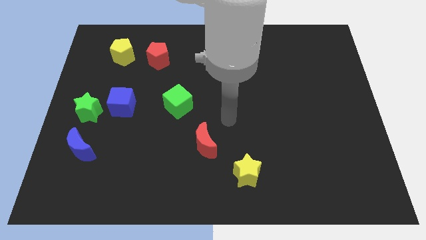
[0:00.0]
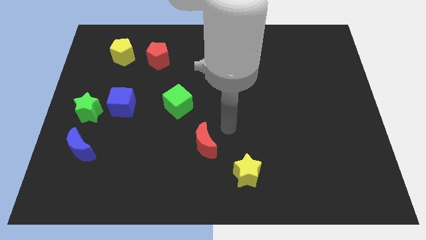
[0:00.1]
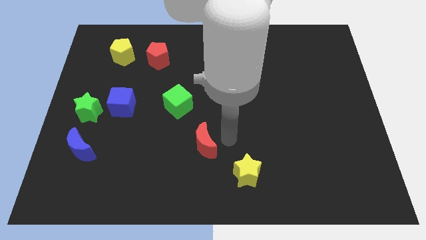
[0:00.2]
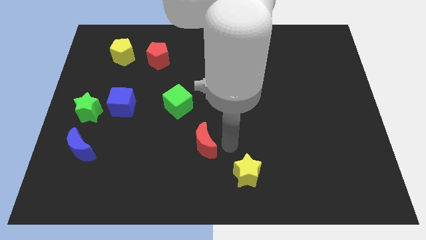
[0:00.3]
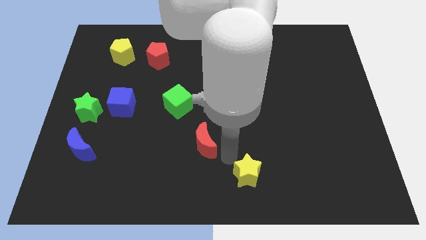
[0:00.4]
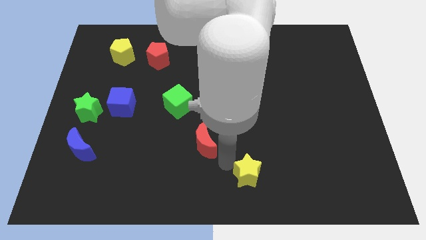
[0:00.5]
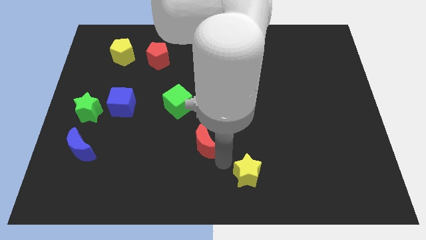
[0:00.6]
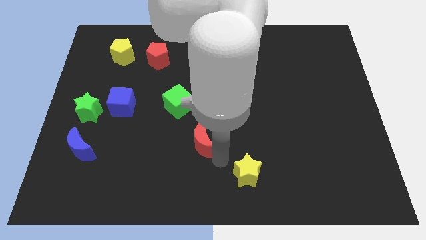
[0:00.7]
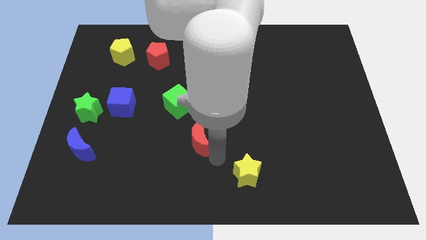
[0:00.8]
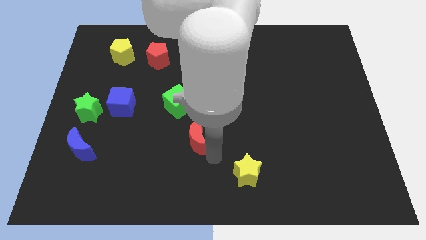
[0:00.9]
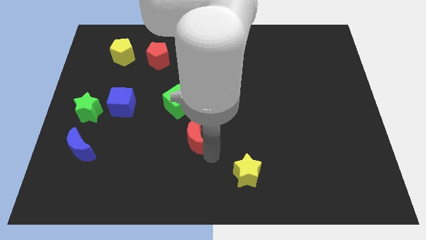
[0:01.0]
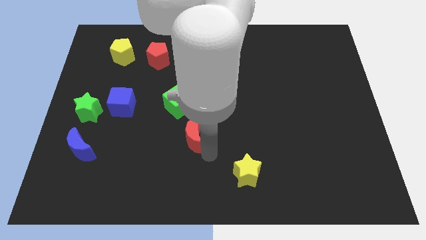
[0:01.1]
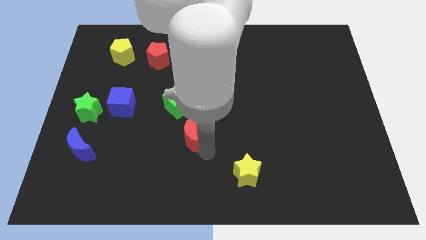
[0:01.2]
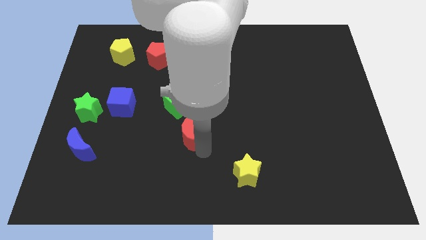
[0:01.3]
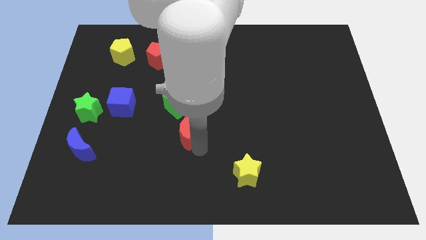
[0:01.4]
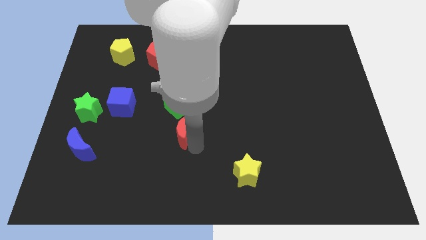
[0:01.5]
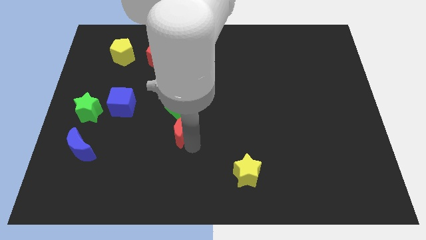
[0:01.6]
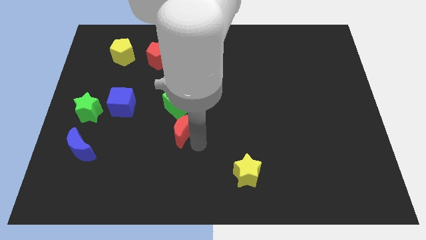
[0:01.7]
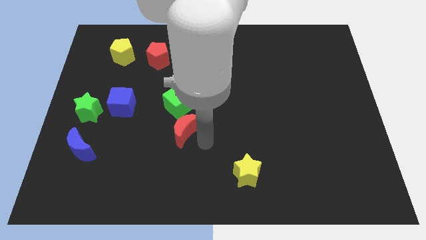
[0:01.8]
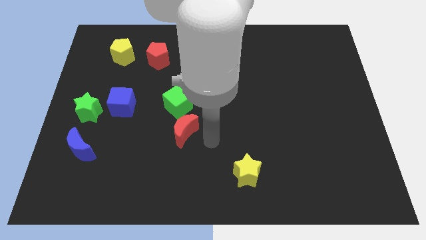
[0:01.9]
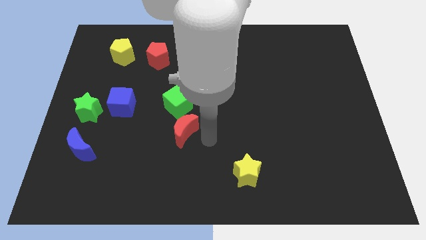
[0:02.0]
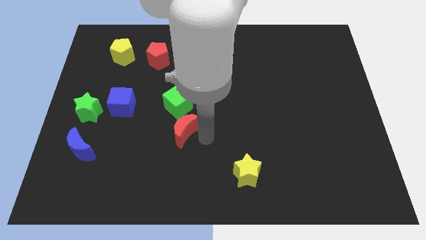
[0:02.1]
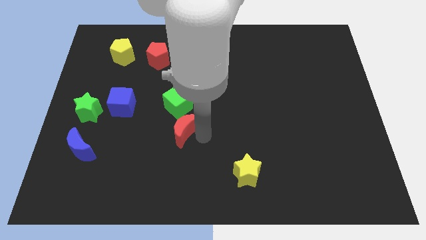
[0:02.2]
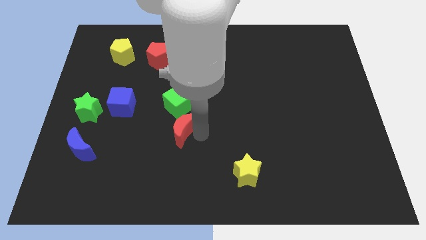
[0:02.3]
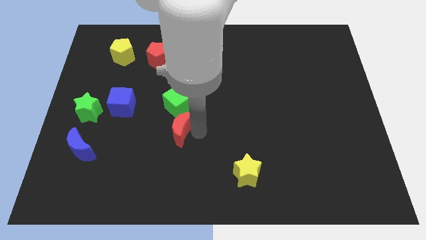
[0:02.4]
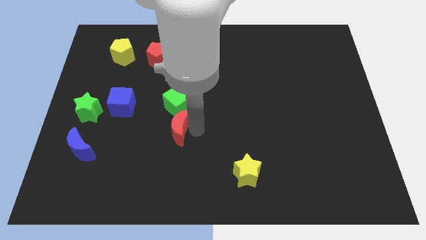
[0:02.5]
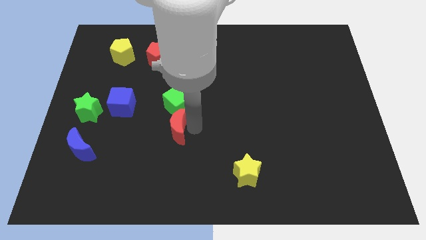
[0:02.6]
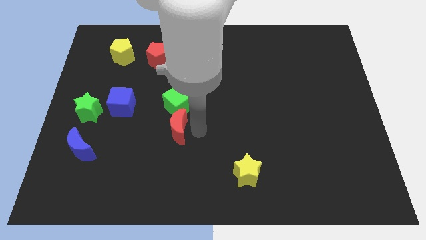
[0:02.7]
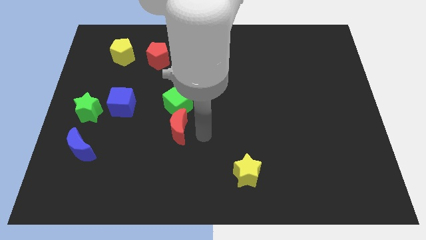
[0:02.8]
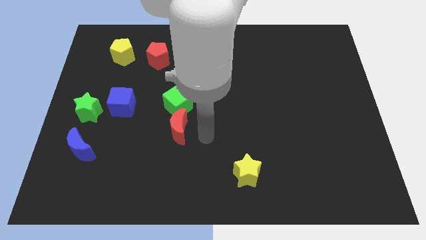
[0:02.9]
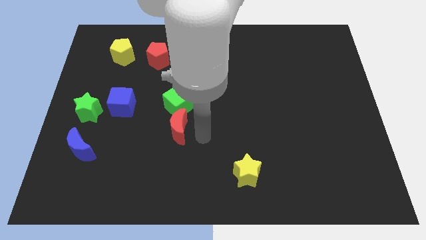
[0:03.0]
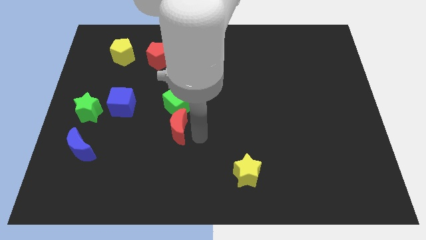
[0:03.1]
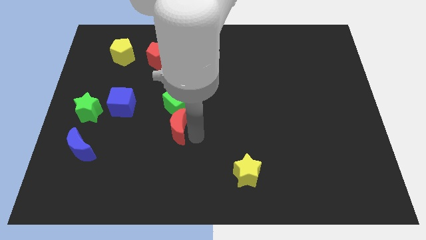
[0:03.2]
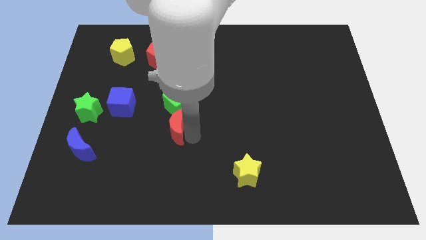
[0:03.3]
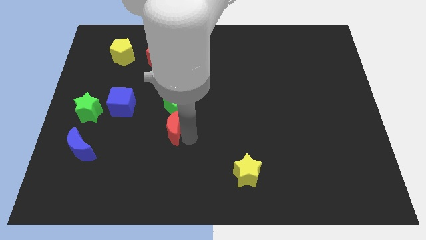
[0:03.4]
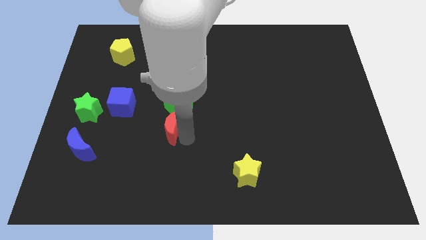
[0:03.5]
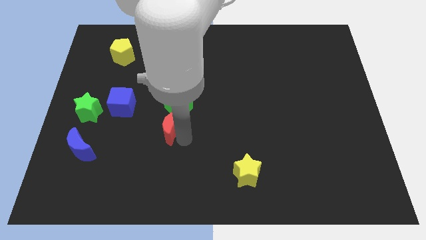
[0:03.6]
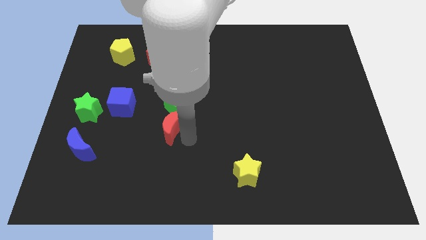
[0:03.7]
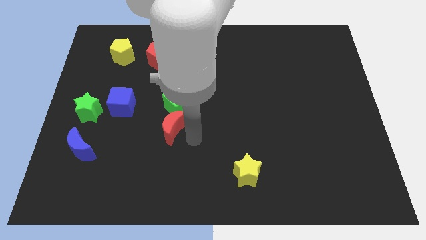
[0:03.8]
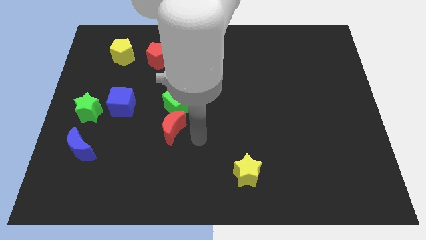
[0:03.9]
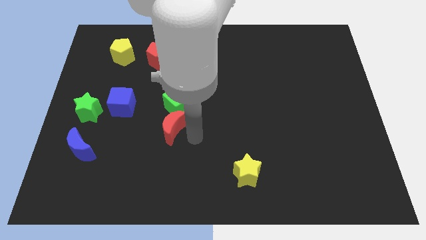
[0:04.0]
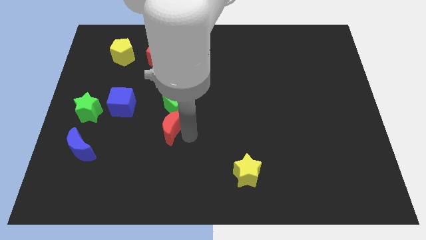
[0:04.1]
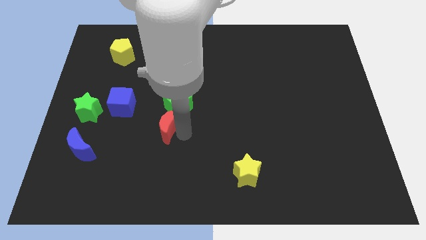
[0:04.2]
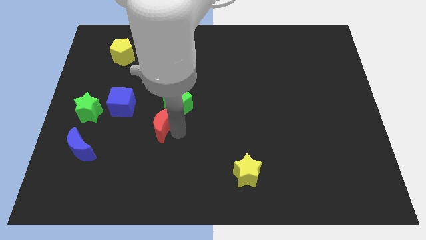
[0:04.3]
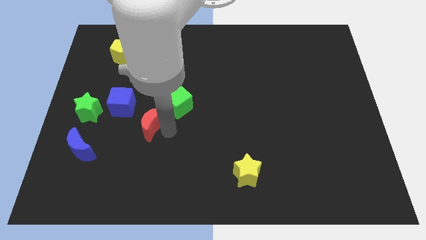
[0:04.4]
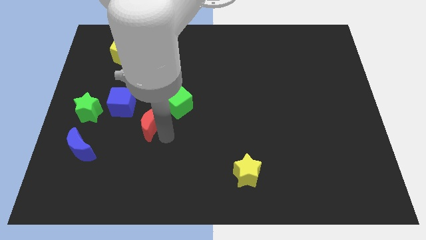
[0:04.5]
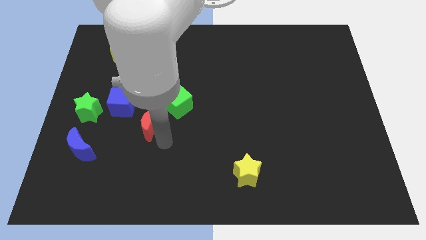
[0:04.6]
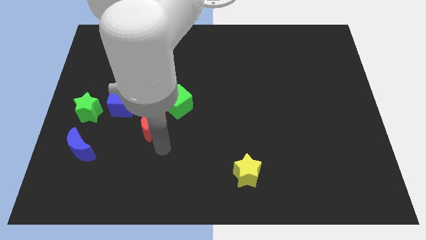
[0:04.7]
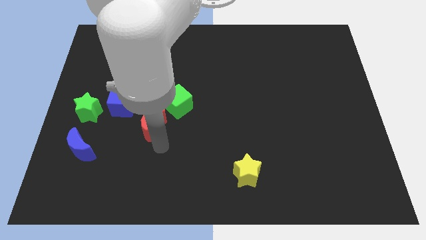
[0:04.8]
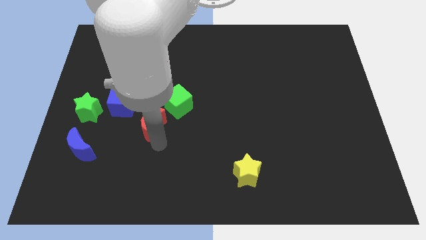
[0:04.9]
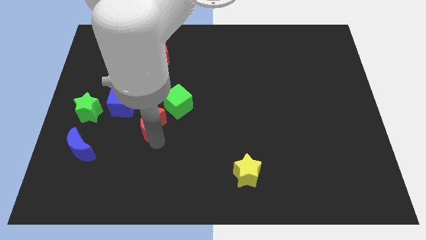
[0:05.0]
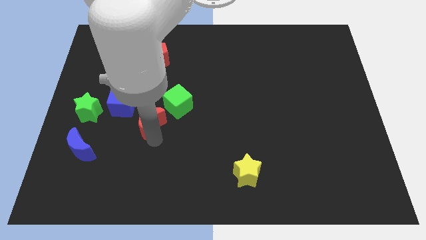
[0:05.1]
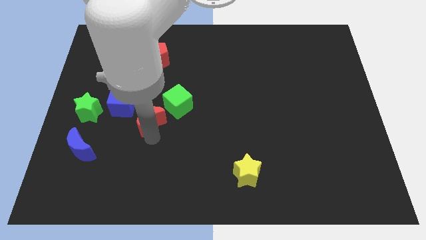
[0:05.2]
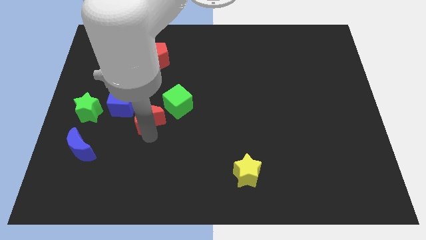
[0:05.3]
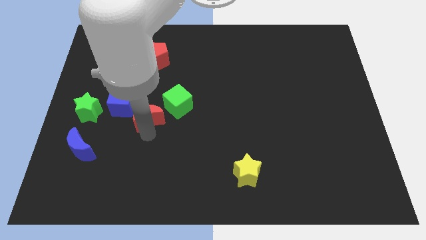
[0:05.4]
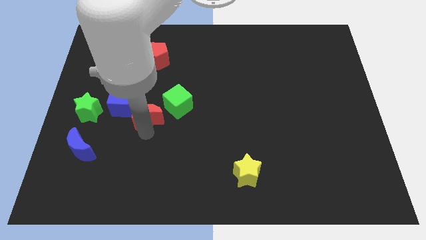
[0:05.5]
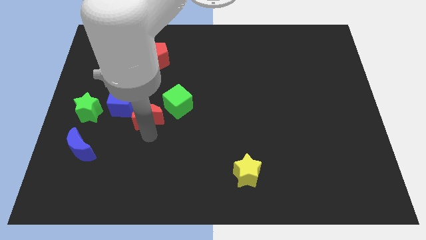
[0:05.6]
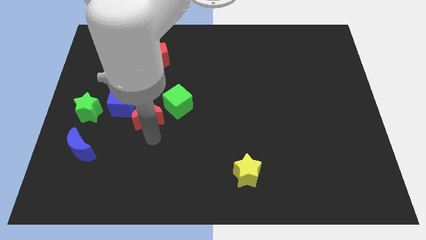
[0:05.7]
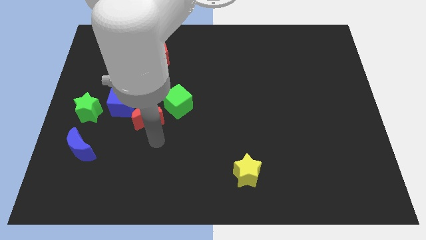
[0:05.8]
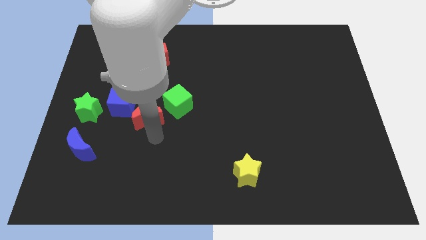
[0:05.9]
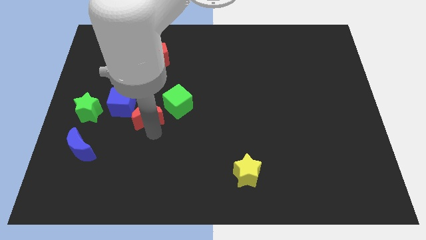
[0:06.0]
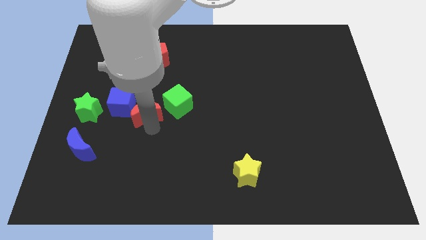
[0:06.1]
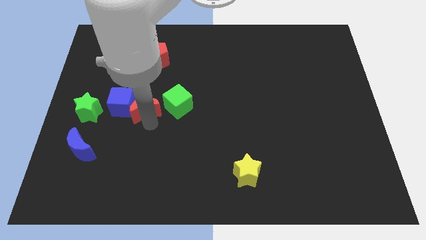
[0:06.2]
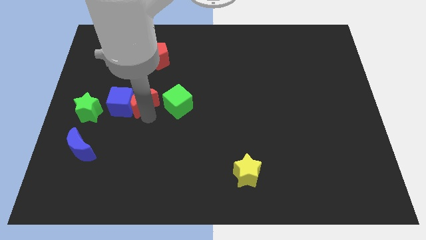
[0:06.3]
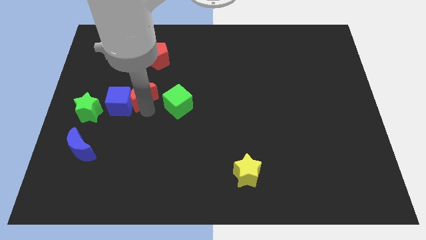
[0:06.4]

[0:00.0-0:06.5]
move the red moon up and to the left diagonally

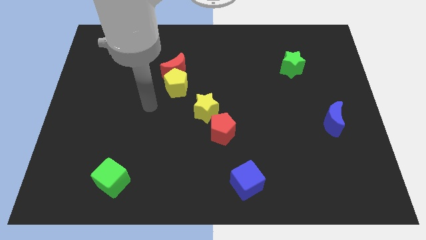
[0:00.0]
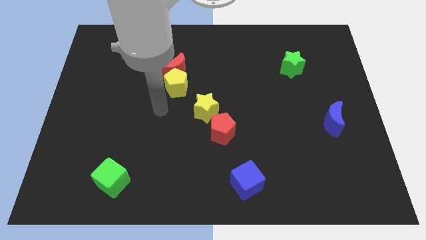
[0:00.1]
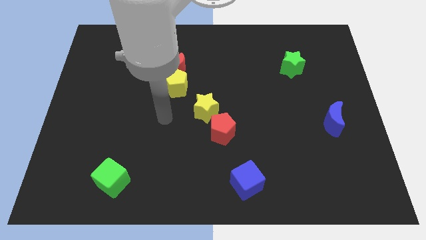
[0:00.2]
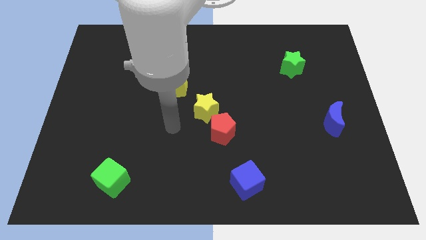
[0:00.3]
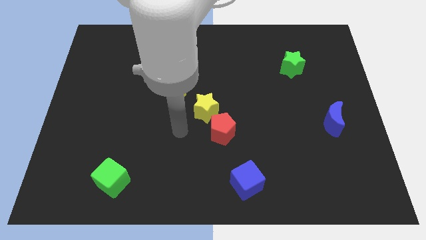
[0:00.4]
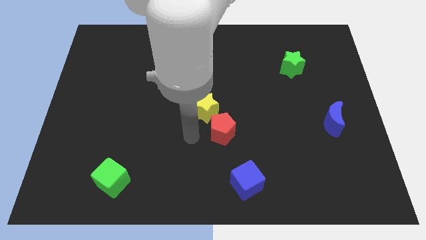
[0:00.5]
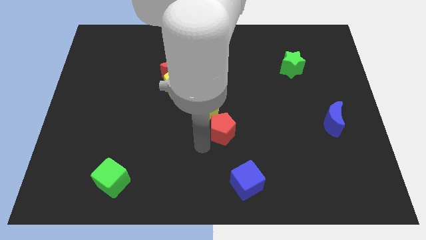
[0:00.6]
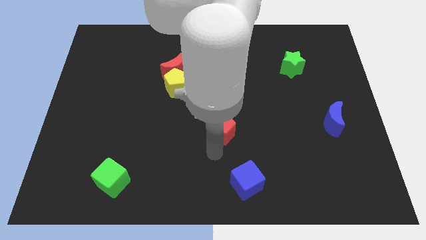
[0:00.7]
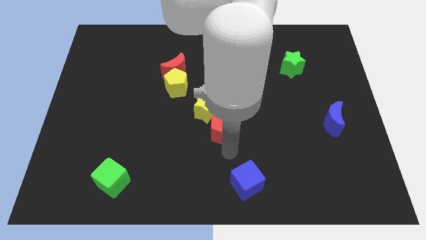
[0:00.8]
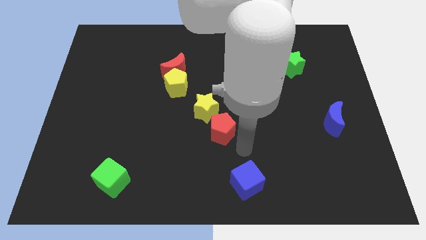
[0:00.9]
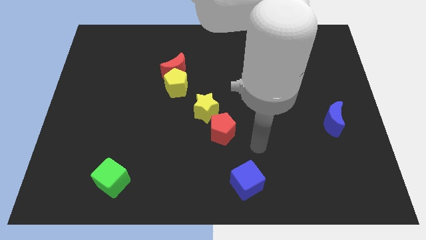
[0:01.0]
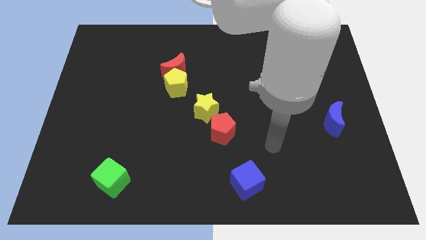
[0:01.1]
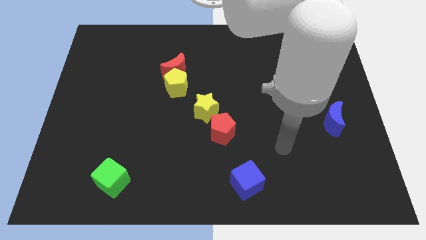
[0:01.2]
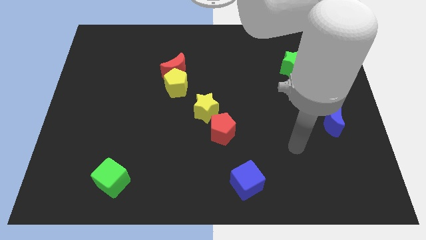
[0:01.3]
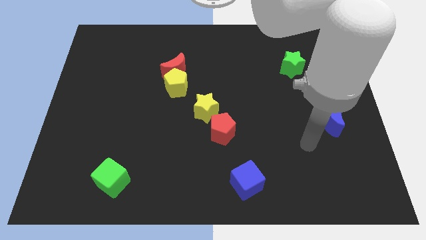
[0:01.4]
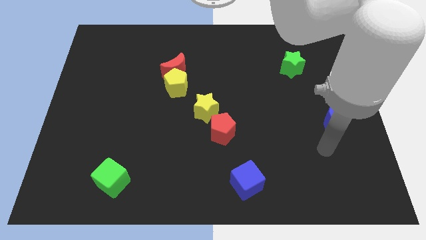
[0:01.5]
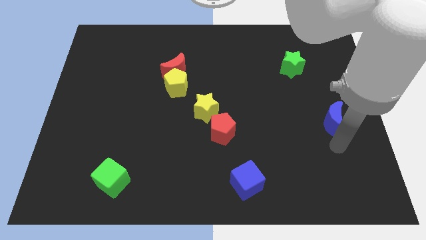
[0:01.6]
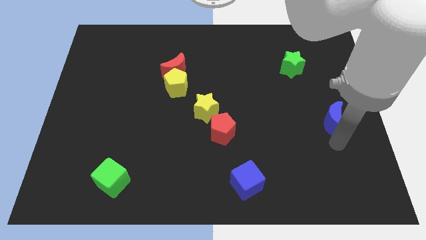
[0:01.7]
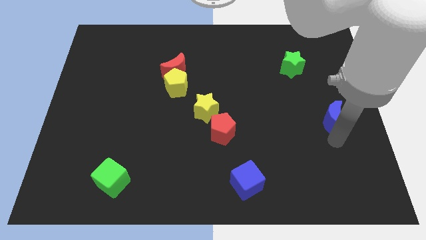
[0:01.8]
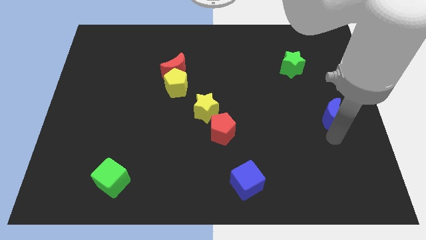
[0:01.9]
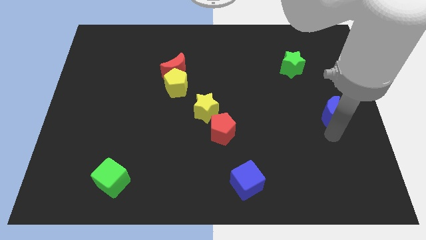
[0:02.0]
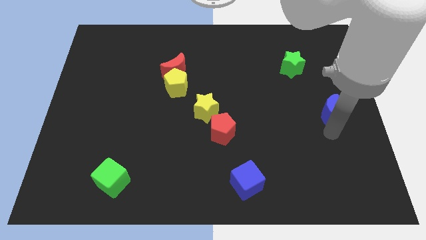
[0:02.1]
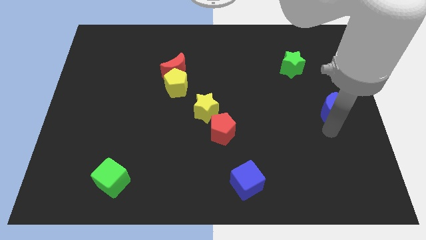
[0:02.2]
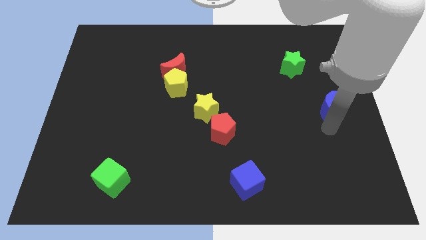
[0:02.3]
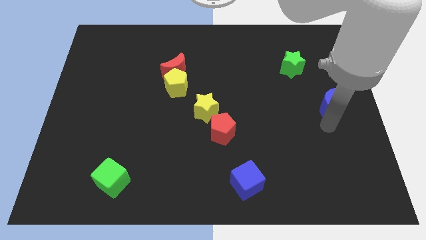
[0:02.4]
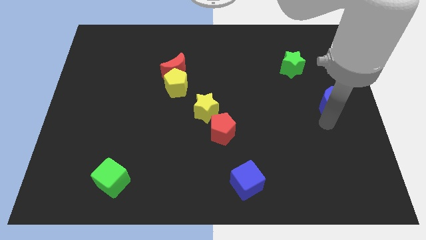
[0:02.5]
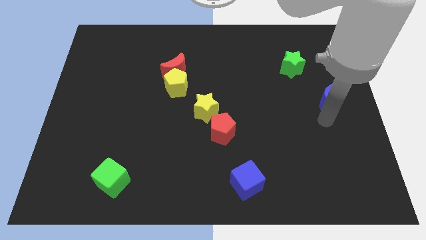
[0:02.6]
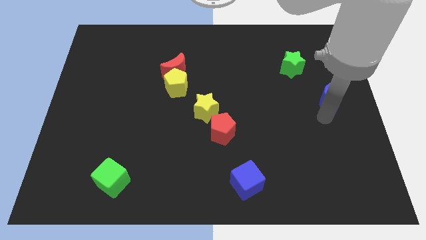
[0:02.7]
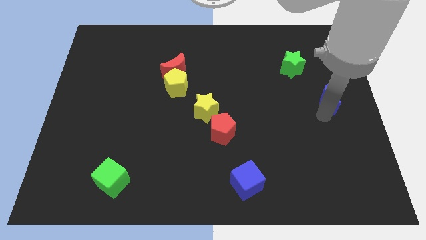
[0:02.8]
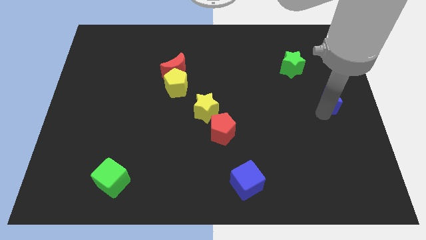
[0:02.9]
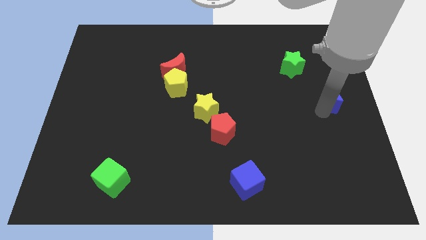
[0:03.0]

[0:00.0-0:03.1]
slide the blue moon somewhat upwards
